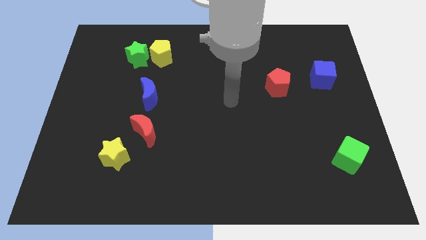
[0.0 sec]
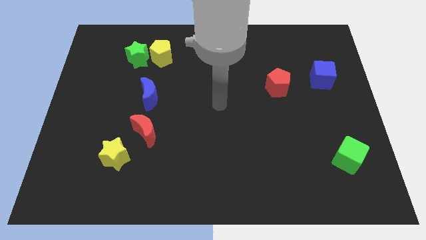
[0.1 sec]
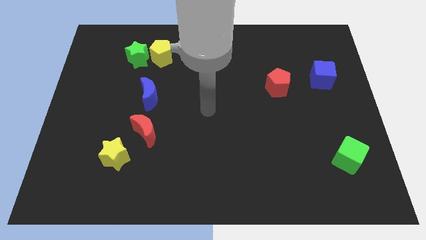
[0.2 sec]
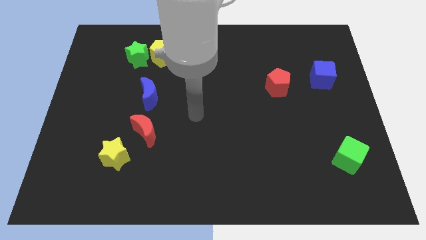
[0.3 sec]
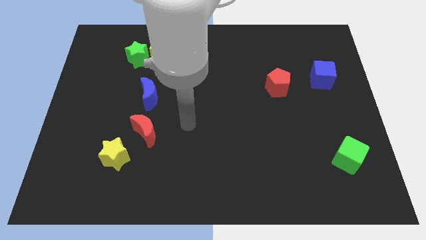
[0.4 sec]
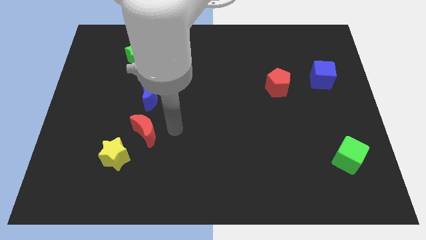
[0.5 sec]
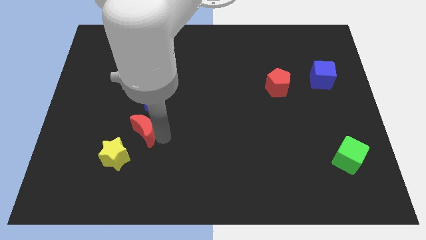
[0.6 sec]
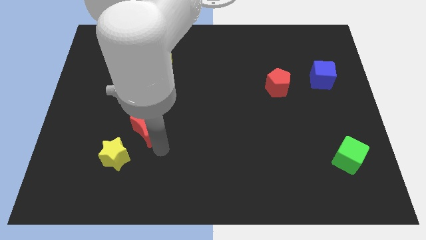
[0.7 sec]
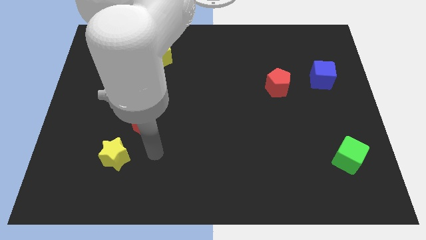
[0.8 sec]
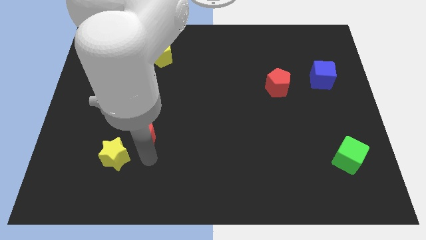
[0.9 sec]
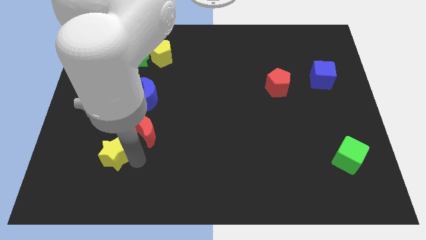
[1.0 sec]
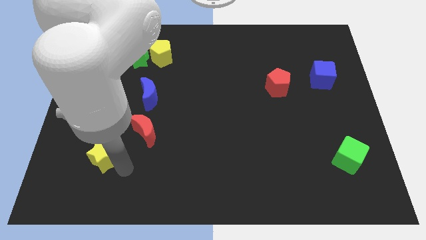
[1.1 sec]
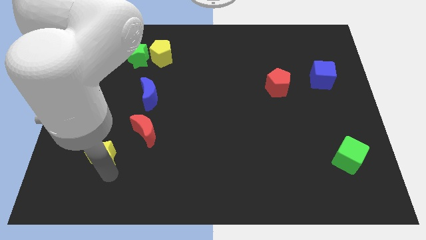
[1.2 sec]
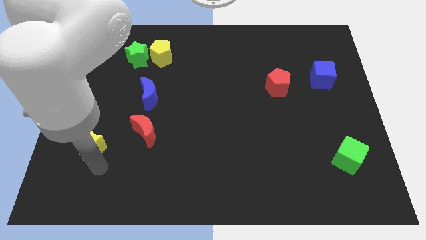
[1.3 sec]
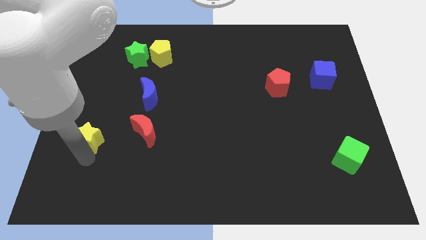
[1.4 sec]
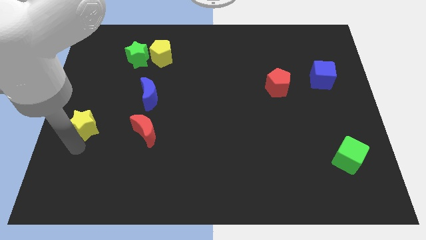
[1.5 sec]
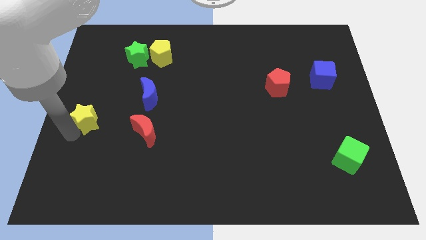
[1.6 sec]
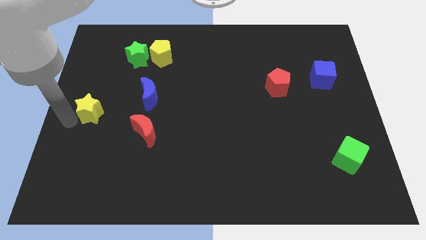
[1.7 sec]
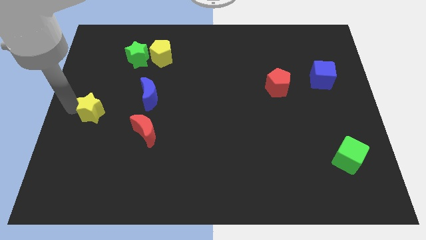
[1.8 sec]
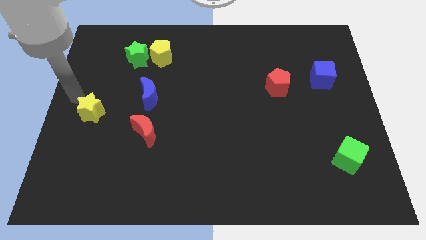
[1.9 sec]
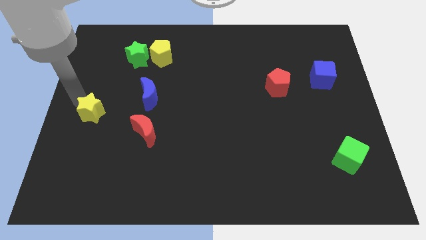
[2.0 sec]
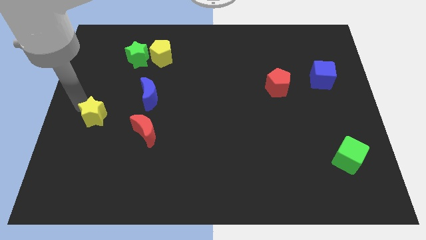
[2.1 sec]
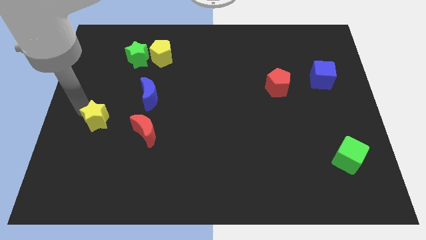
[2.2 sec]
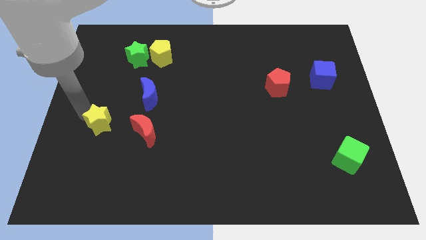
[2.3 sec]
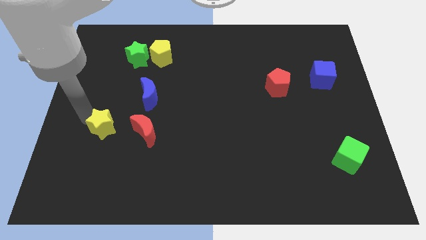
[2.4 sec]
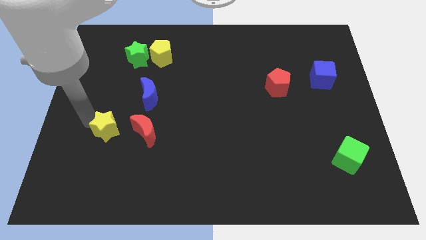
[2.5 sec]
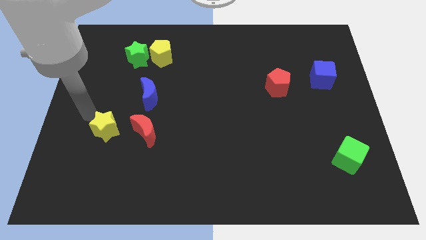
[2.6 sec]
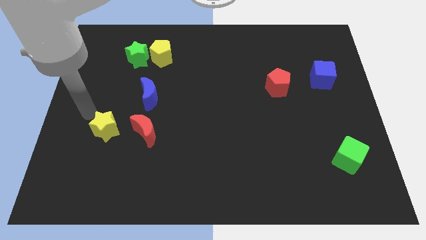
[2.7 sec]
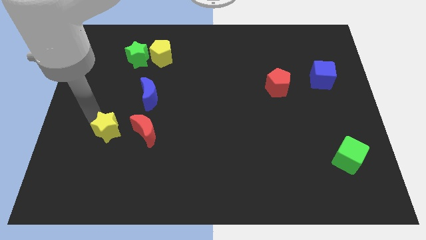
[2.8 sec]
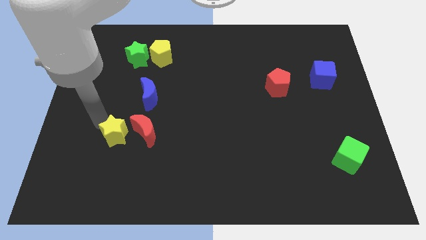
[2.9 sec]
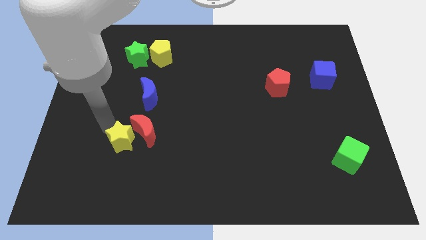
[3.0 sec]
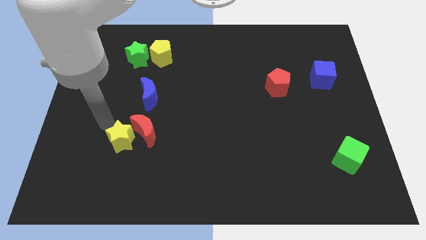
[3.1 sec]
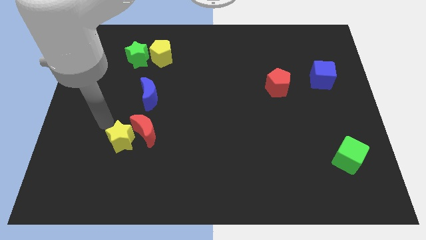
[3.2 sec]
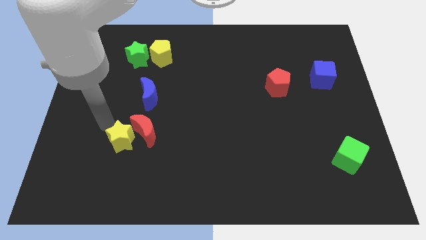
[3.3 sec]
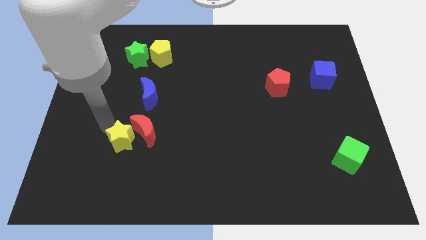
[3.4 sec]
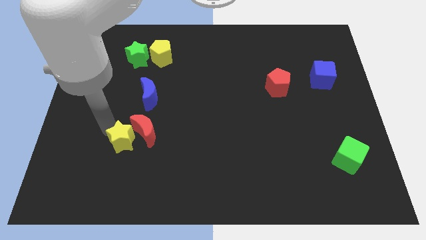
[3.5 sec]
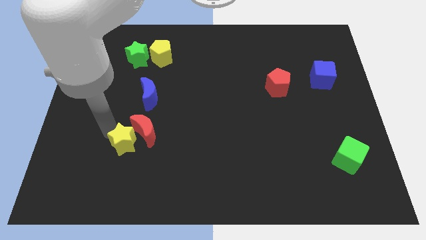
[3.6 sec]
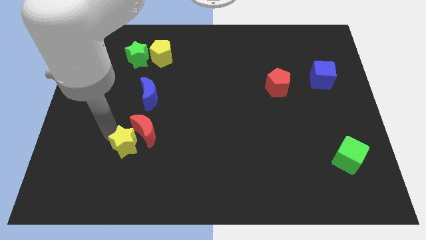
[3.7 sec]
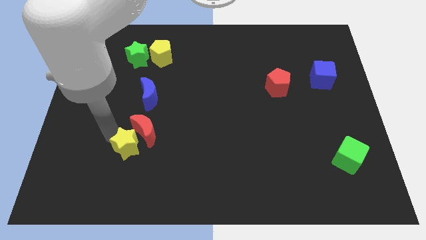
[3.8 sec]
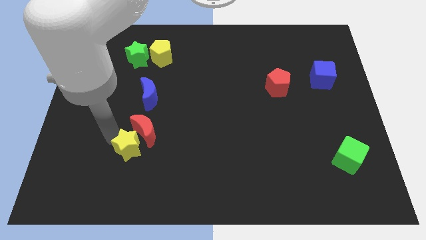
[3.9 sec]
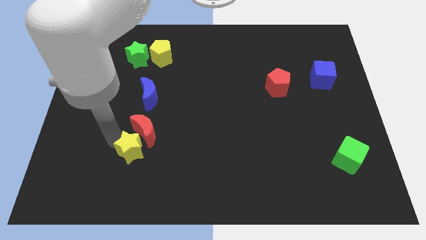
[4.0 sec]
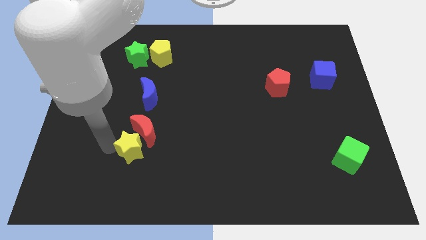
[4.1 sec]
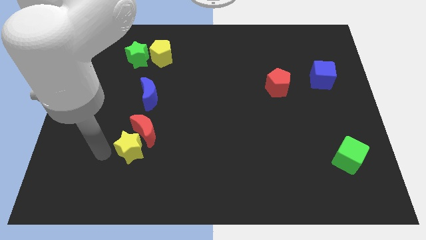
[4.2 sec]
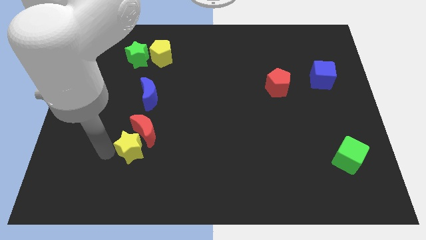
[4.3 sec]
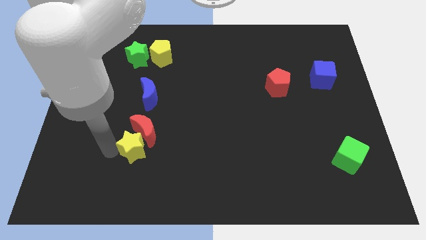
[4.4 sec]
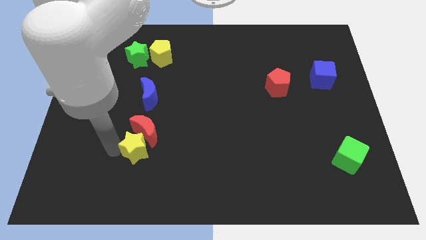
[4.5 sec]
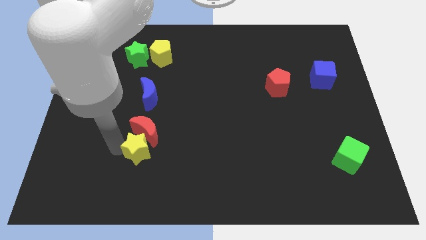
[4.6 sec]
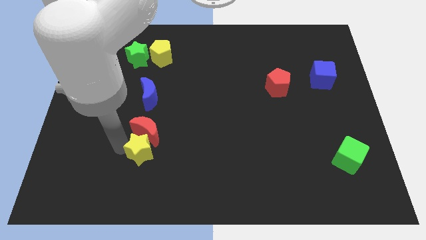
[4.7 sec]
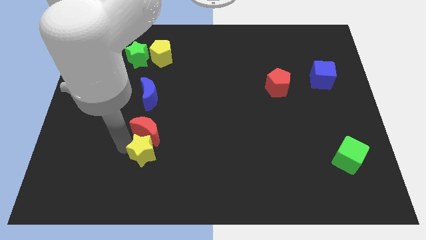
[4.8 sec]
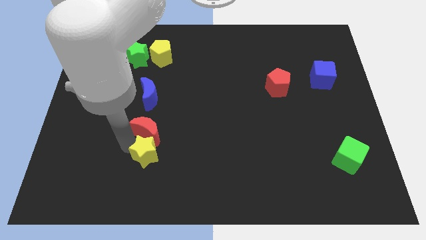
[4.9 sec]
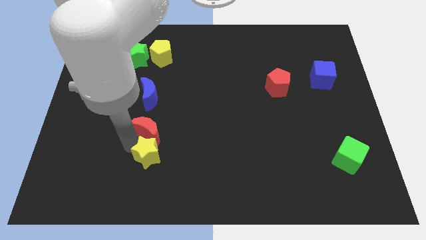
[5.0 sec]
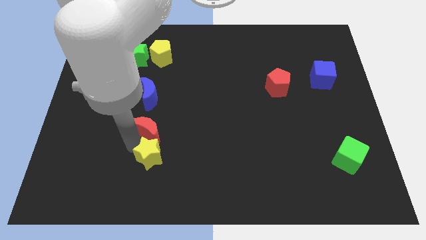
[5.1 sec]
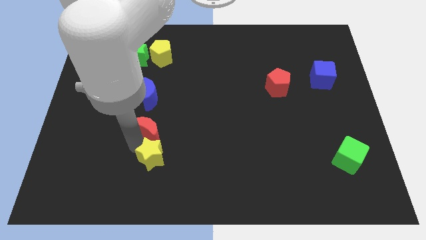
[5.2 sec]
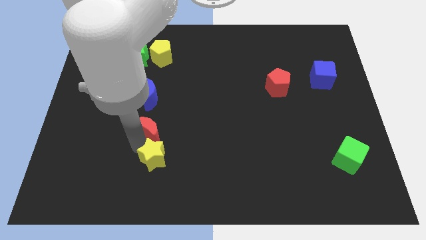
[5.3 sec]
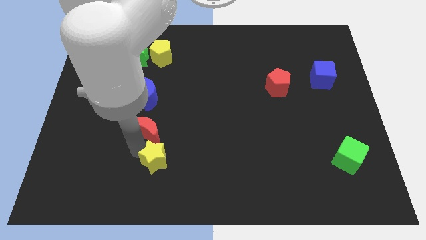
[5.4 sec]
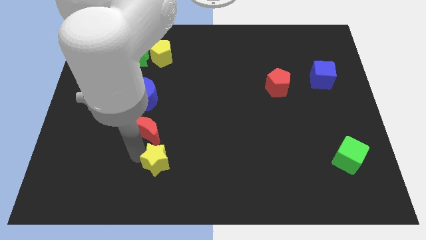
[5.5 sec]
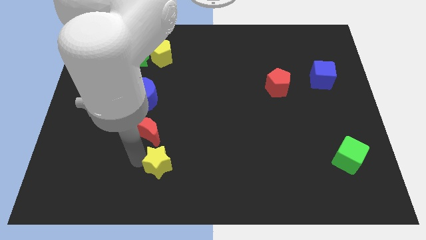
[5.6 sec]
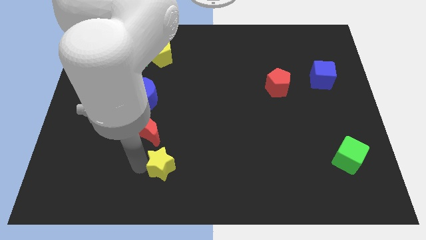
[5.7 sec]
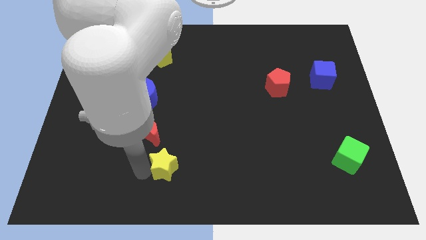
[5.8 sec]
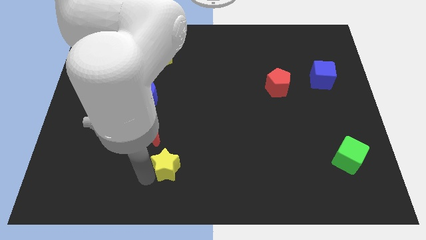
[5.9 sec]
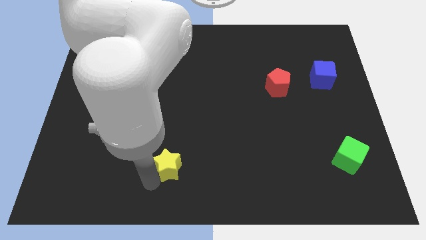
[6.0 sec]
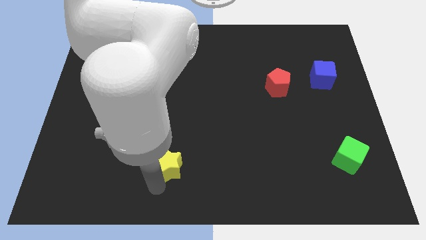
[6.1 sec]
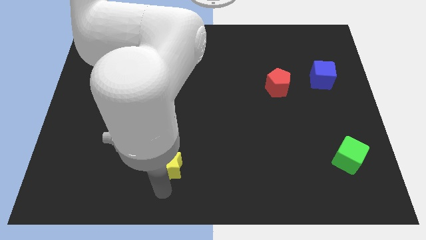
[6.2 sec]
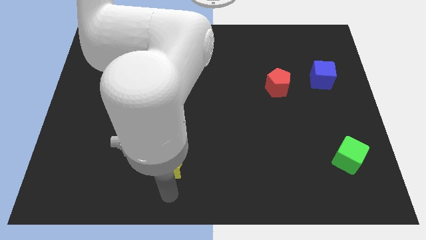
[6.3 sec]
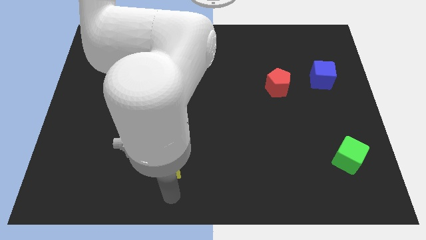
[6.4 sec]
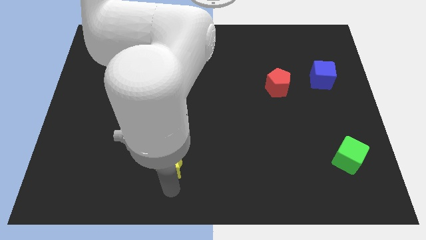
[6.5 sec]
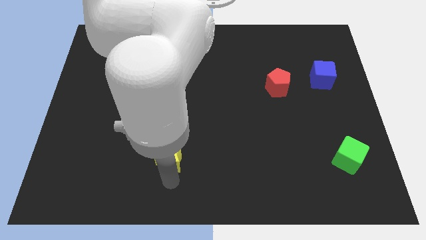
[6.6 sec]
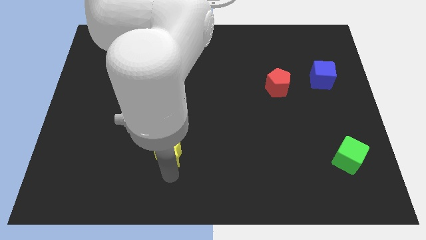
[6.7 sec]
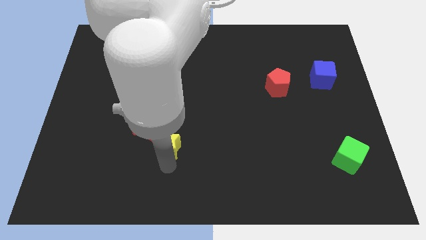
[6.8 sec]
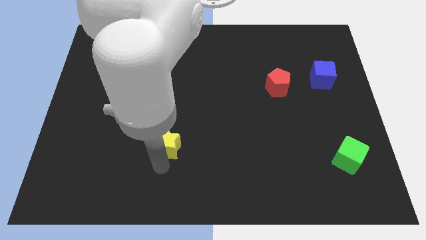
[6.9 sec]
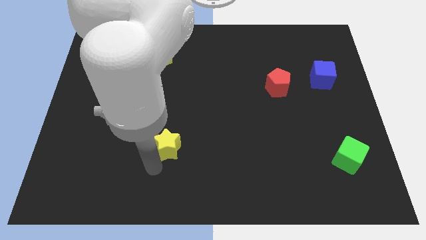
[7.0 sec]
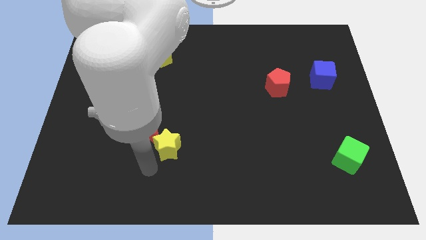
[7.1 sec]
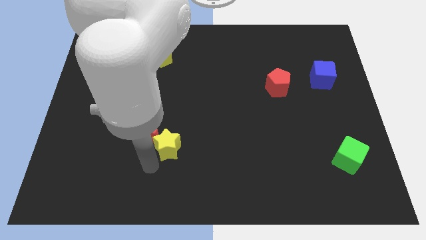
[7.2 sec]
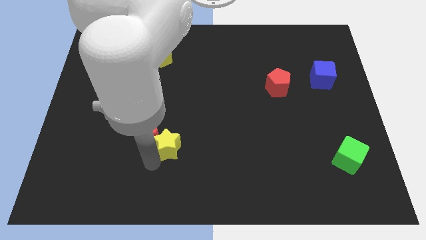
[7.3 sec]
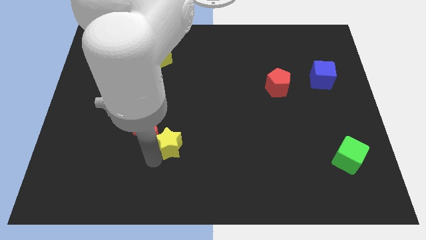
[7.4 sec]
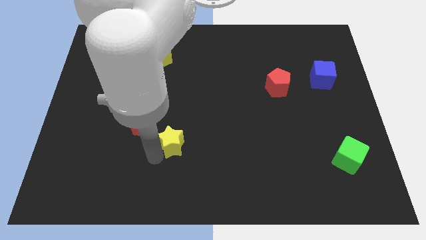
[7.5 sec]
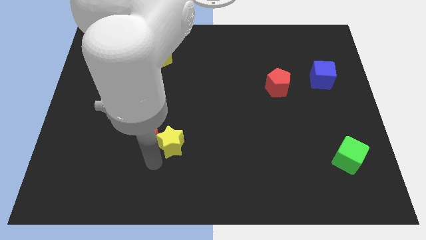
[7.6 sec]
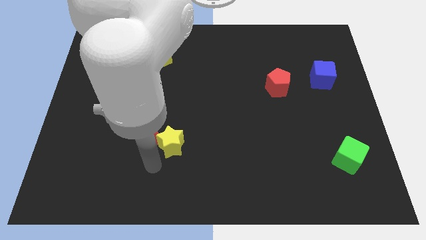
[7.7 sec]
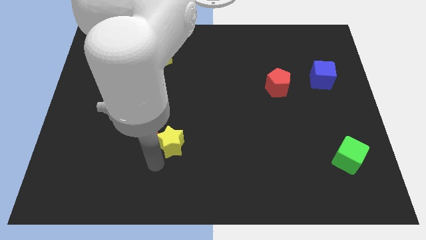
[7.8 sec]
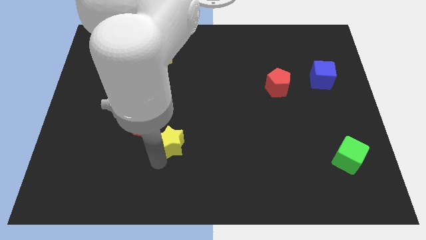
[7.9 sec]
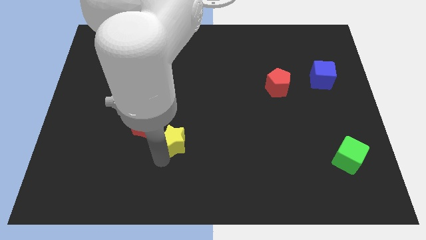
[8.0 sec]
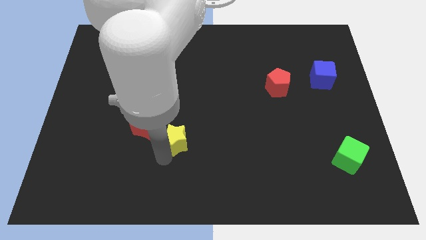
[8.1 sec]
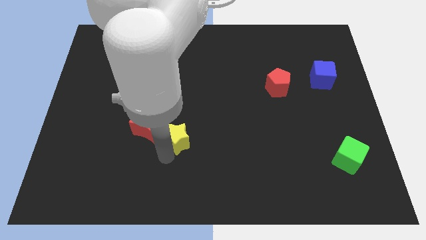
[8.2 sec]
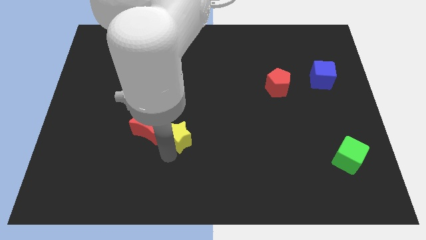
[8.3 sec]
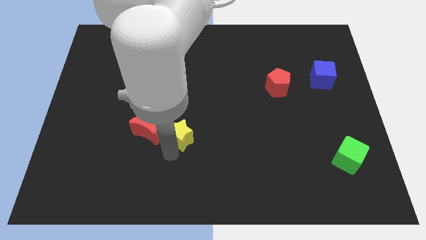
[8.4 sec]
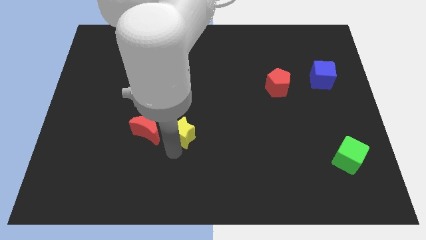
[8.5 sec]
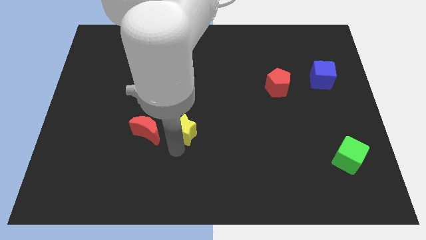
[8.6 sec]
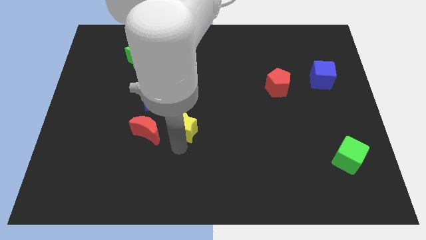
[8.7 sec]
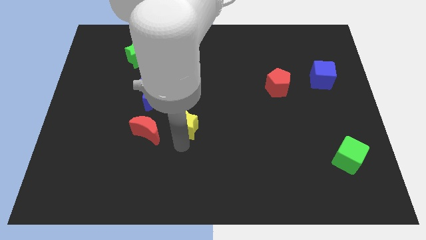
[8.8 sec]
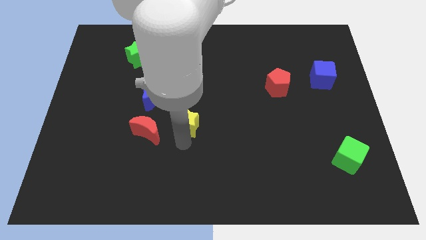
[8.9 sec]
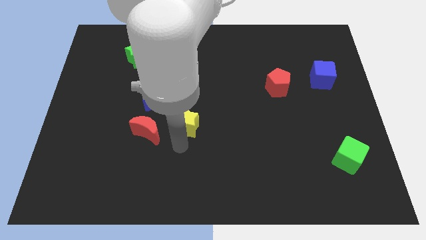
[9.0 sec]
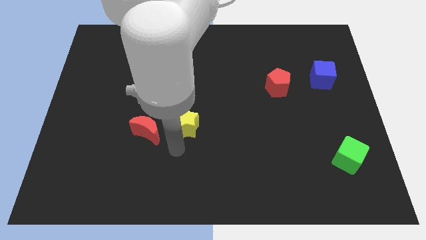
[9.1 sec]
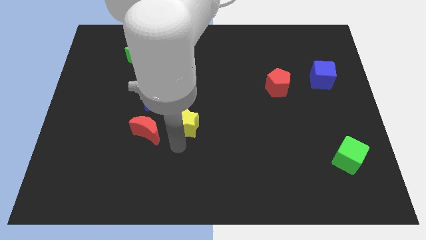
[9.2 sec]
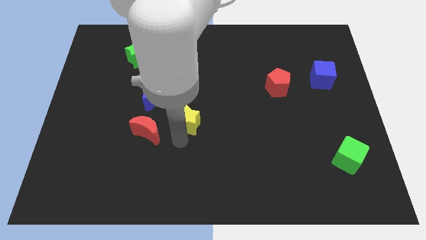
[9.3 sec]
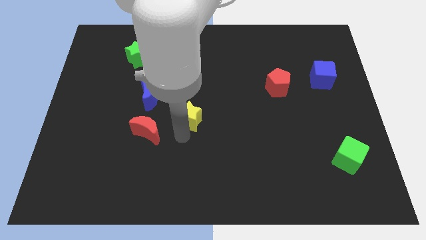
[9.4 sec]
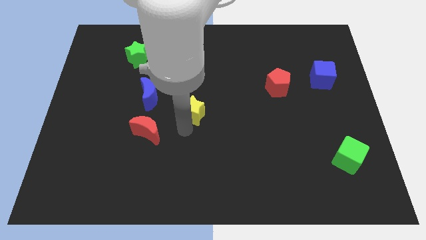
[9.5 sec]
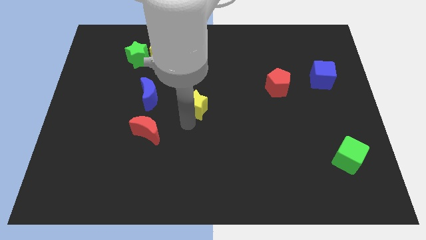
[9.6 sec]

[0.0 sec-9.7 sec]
push the yellow star upwards and to the right diagonally
